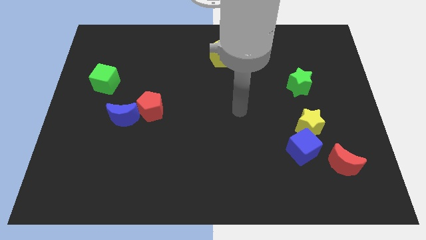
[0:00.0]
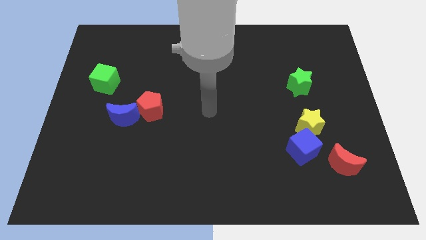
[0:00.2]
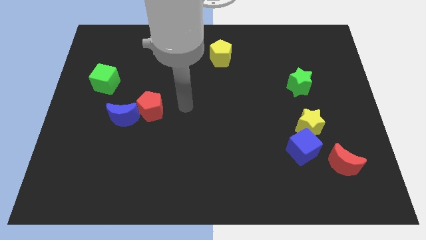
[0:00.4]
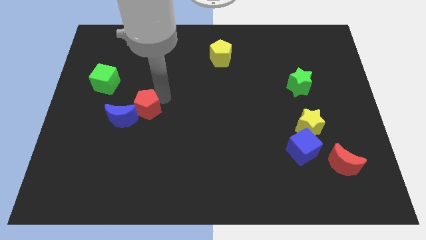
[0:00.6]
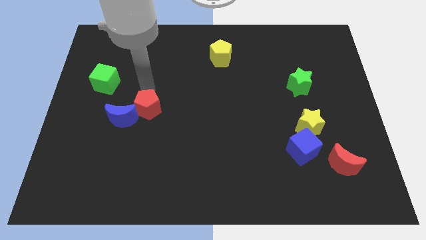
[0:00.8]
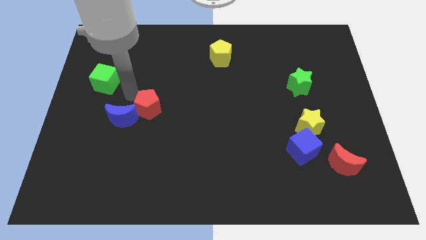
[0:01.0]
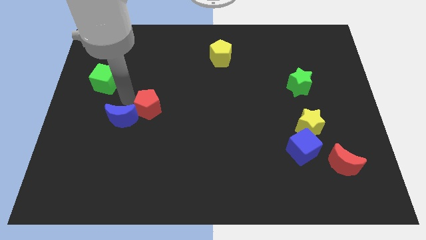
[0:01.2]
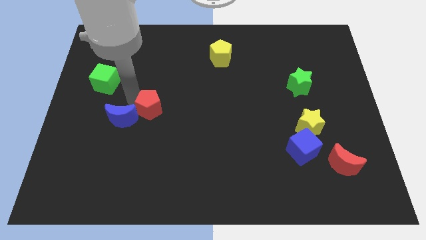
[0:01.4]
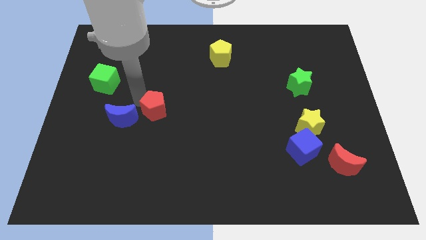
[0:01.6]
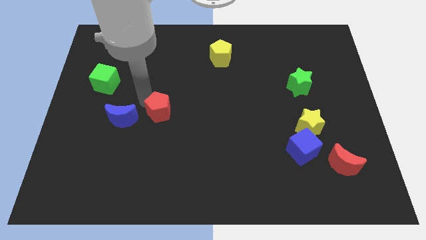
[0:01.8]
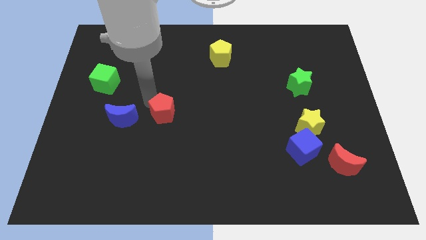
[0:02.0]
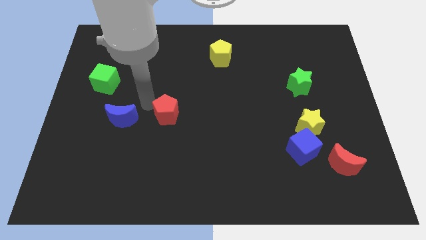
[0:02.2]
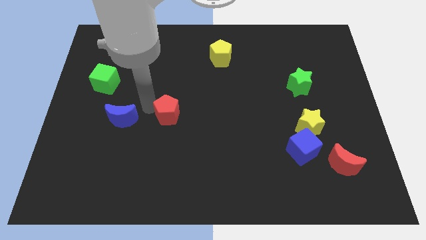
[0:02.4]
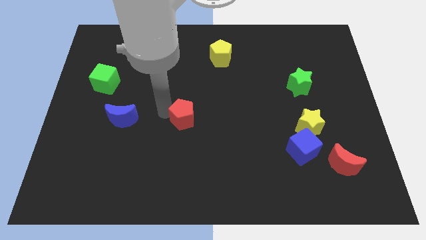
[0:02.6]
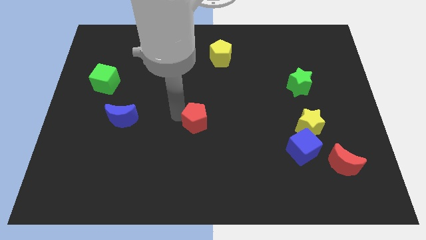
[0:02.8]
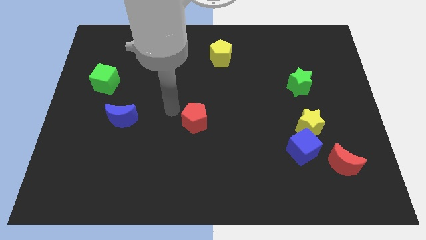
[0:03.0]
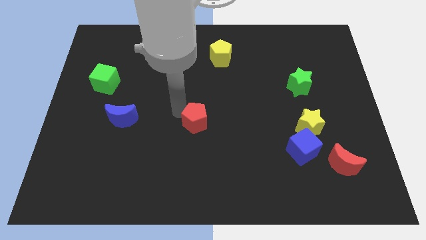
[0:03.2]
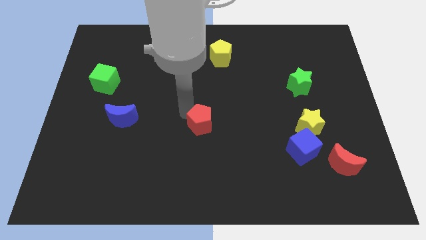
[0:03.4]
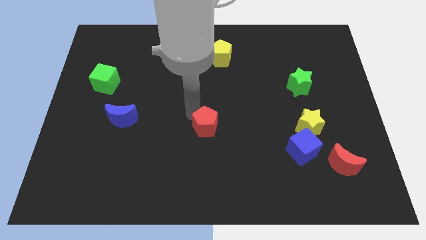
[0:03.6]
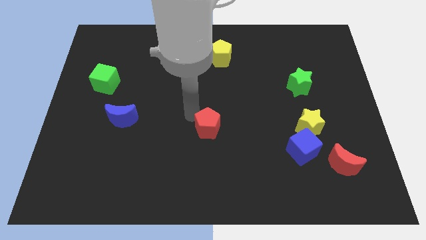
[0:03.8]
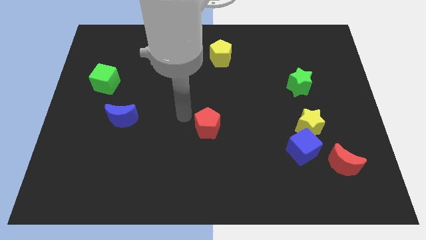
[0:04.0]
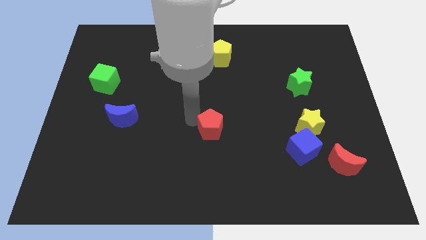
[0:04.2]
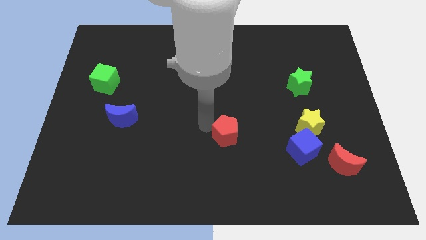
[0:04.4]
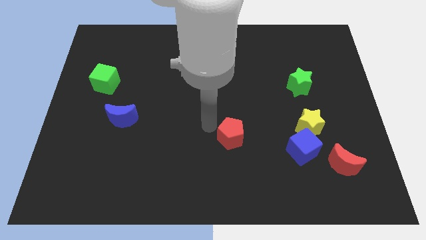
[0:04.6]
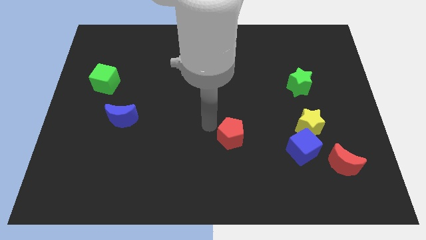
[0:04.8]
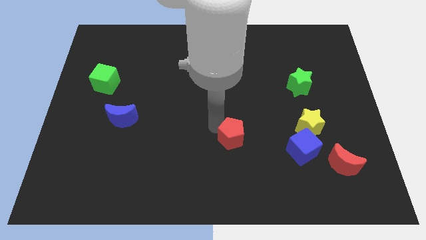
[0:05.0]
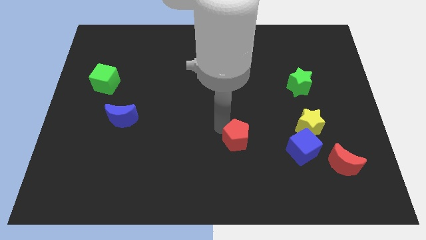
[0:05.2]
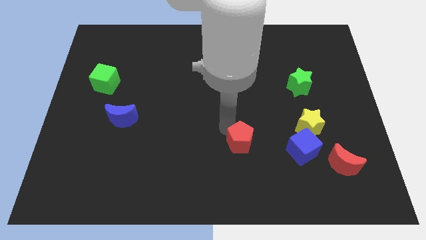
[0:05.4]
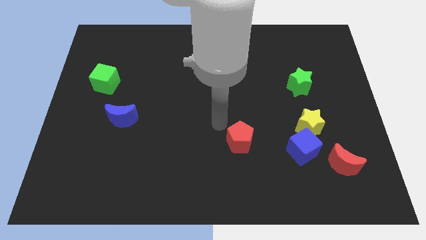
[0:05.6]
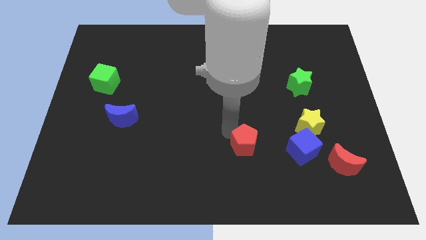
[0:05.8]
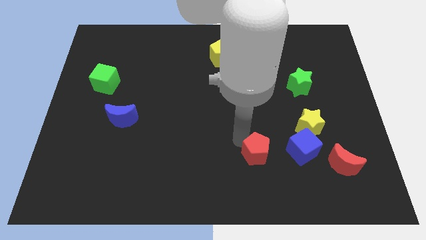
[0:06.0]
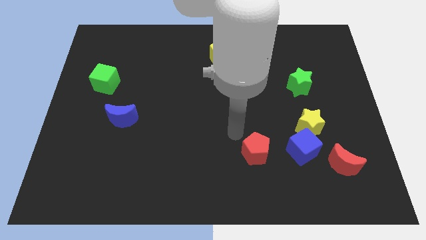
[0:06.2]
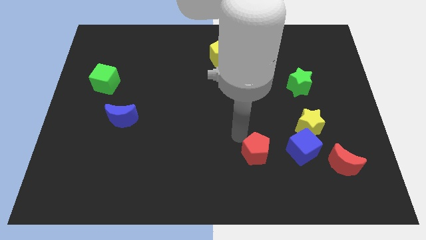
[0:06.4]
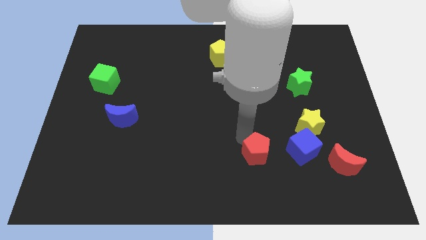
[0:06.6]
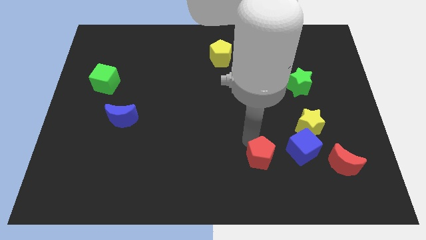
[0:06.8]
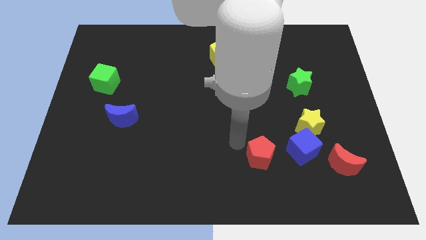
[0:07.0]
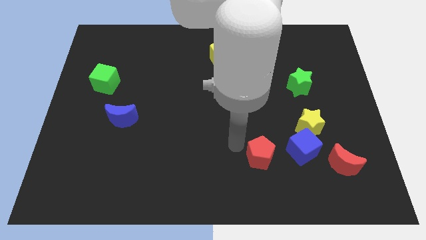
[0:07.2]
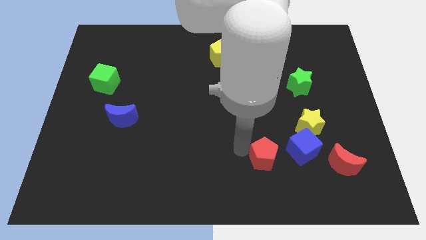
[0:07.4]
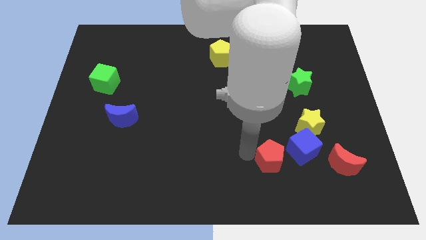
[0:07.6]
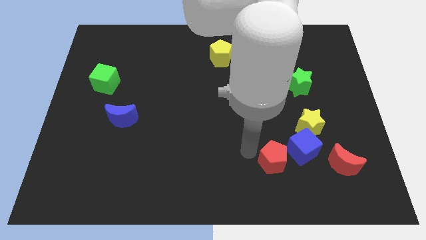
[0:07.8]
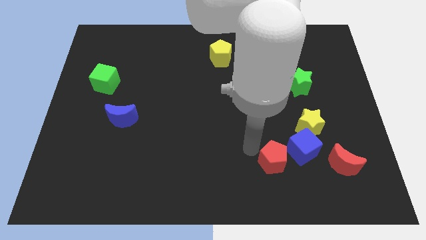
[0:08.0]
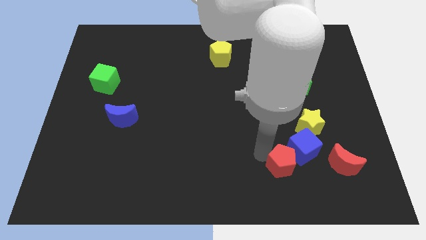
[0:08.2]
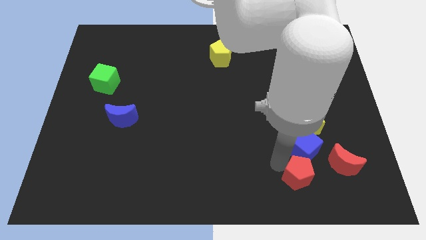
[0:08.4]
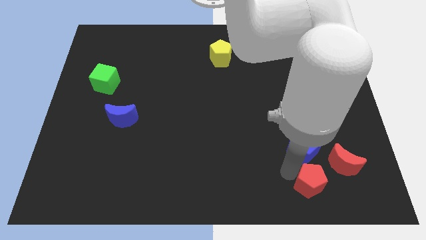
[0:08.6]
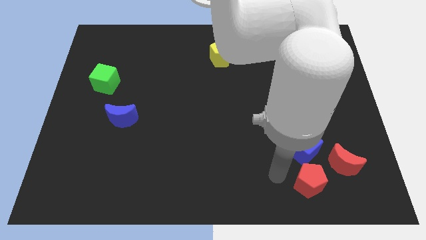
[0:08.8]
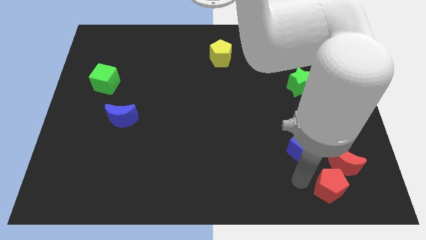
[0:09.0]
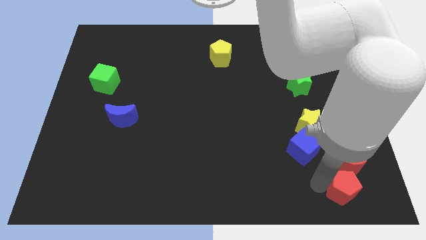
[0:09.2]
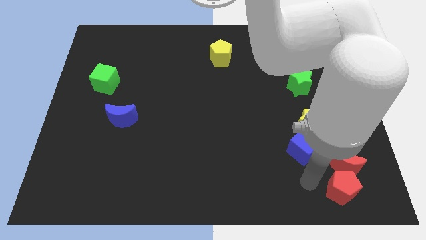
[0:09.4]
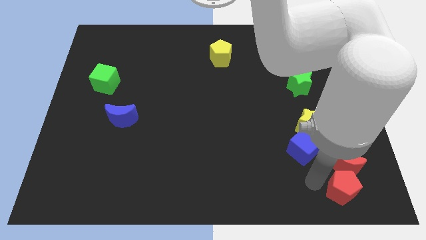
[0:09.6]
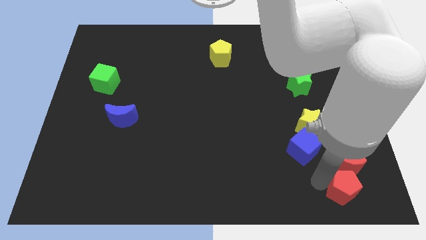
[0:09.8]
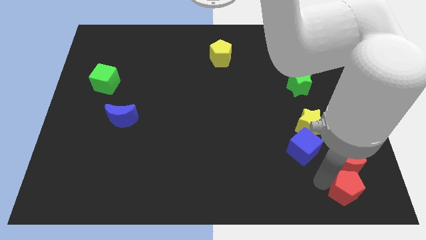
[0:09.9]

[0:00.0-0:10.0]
slide the red pentagon to the bottom right of the board

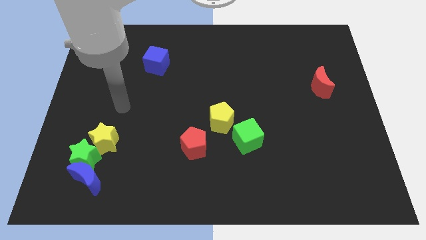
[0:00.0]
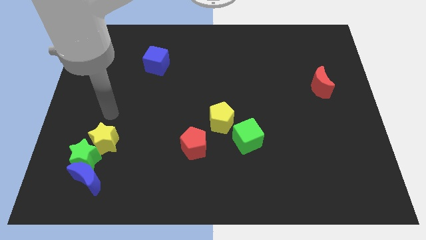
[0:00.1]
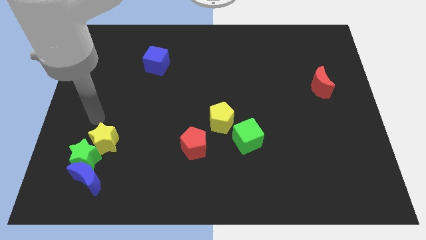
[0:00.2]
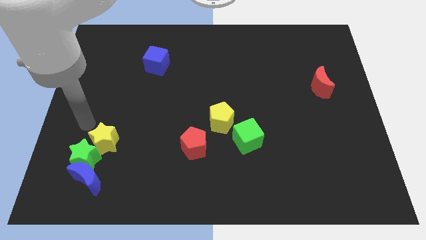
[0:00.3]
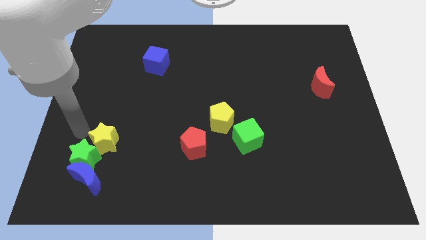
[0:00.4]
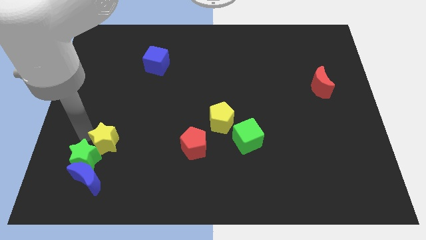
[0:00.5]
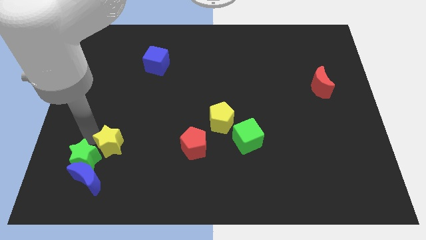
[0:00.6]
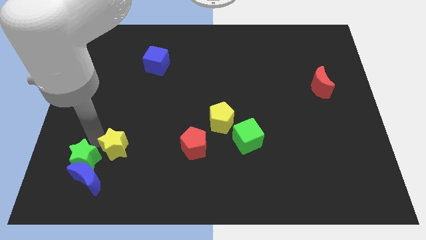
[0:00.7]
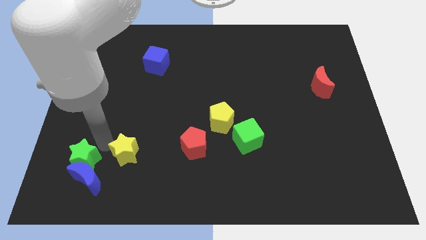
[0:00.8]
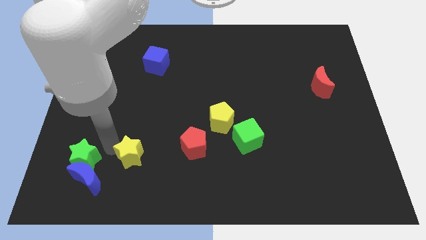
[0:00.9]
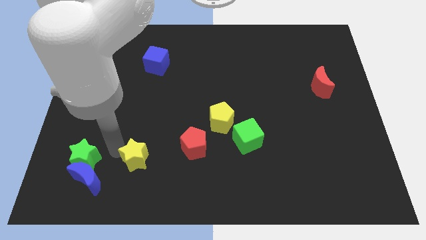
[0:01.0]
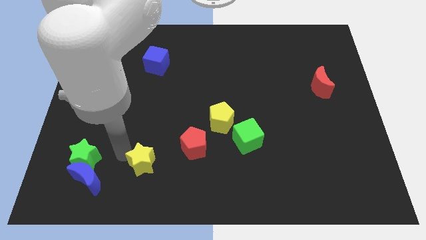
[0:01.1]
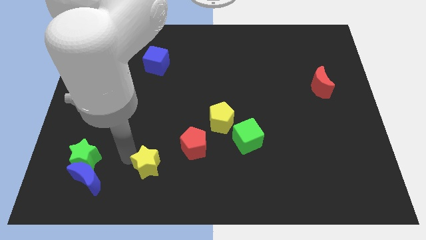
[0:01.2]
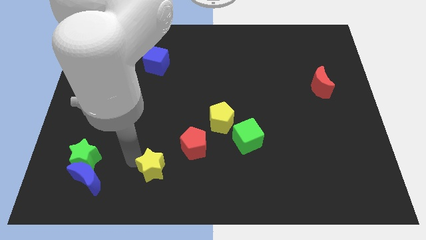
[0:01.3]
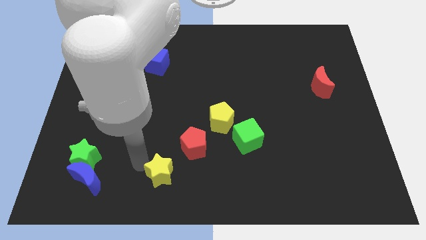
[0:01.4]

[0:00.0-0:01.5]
slide the yellow star to the bottom side
